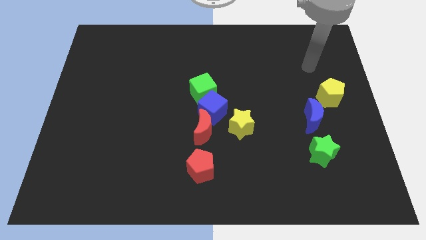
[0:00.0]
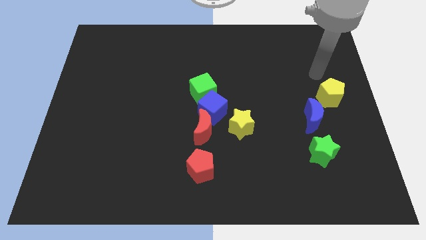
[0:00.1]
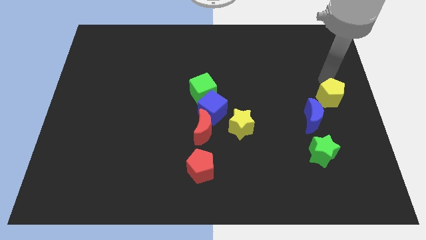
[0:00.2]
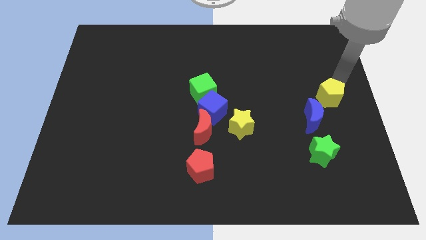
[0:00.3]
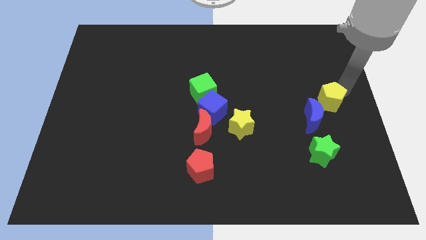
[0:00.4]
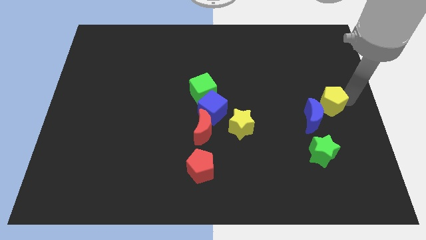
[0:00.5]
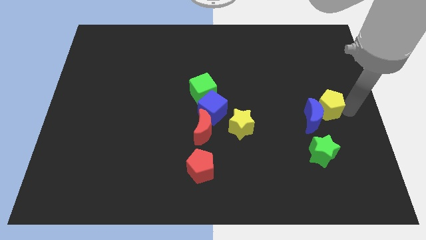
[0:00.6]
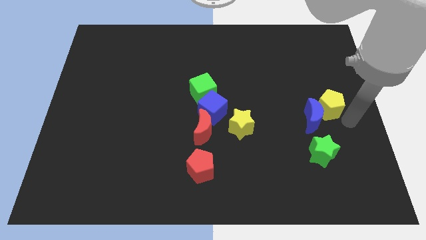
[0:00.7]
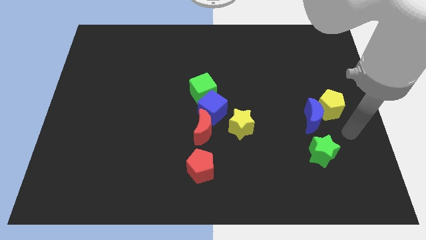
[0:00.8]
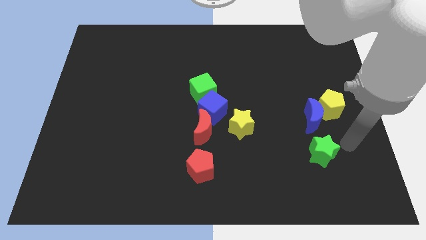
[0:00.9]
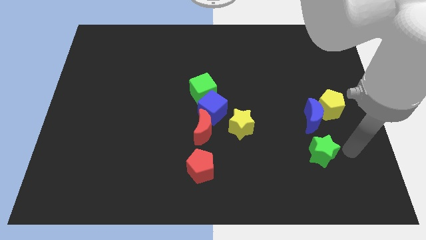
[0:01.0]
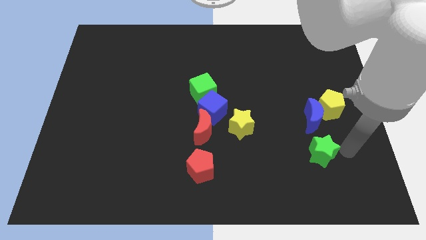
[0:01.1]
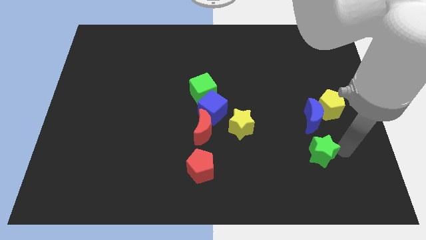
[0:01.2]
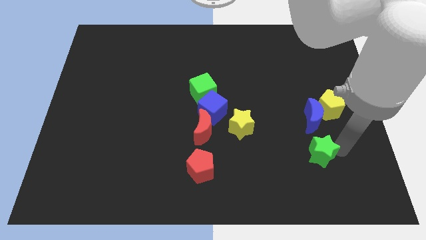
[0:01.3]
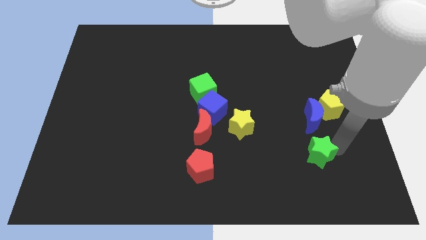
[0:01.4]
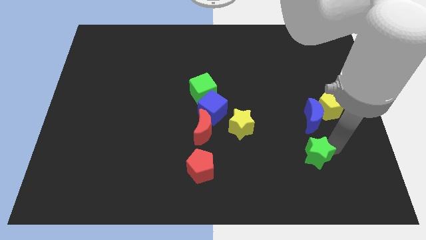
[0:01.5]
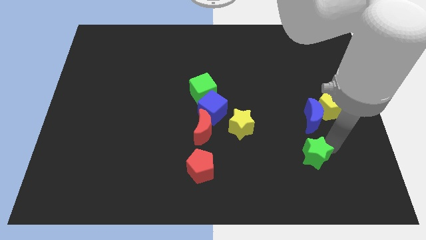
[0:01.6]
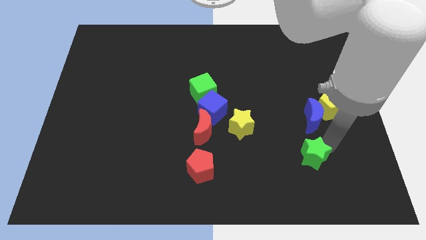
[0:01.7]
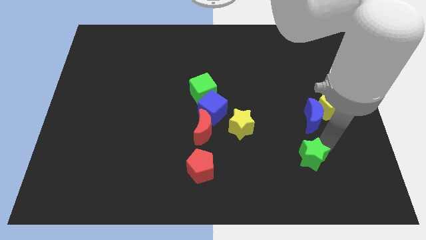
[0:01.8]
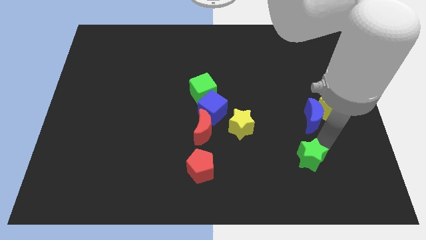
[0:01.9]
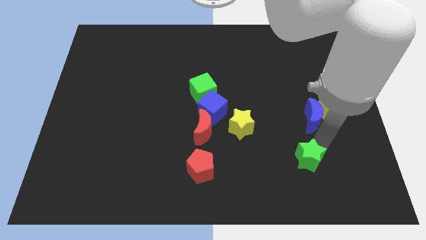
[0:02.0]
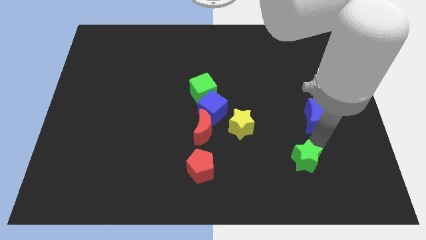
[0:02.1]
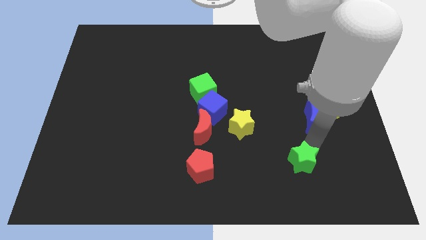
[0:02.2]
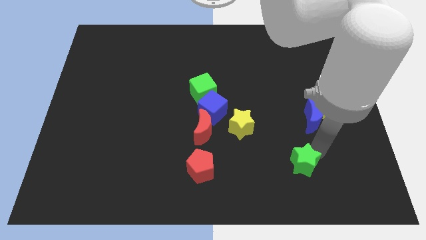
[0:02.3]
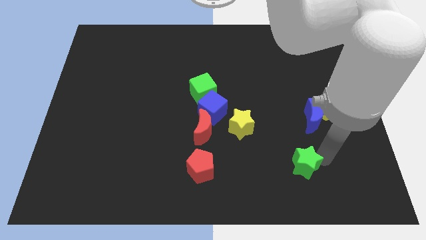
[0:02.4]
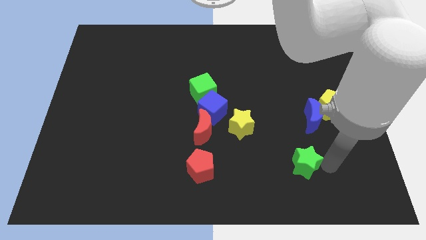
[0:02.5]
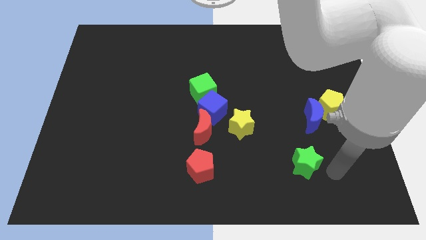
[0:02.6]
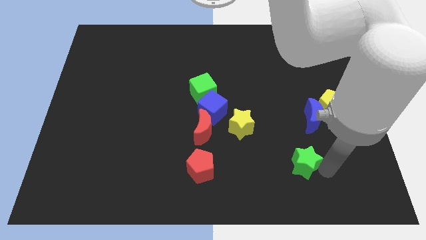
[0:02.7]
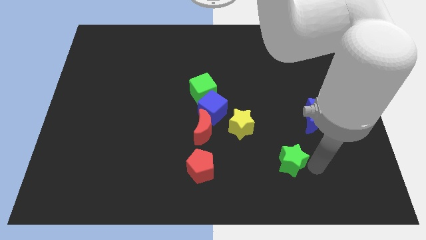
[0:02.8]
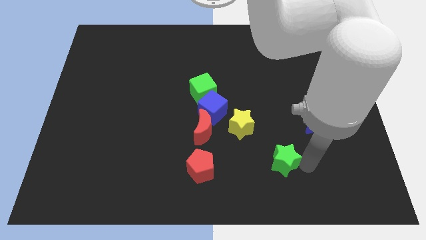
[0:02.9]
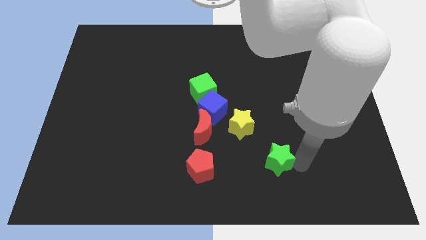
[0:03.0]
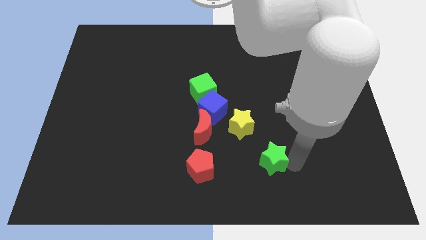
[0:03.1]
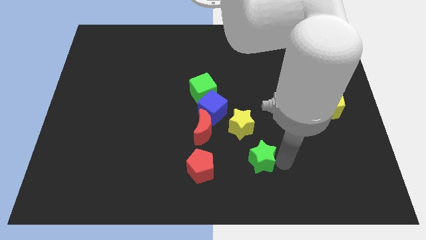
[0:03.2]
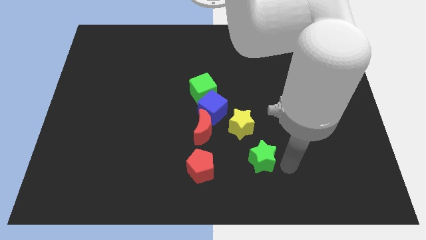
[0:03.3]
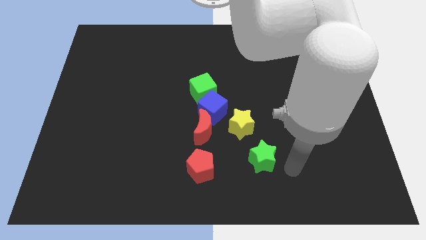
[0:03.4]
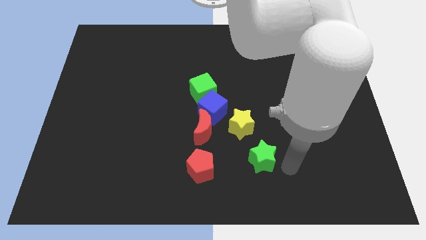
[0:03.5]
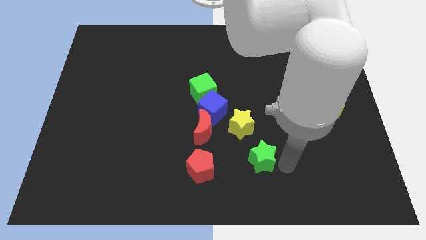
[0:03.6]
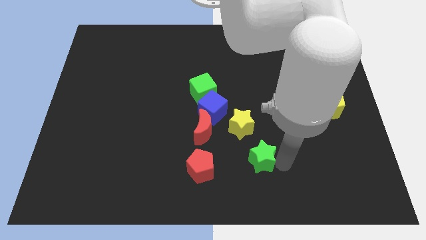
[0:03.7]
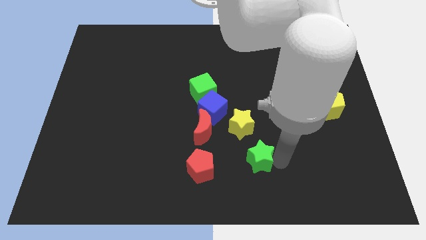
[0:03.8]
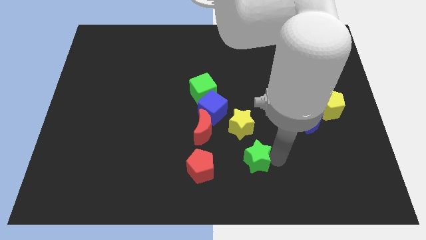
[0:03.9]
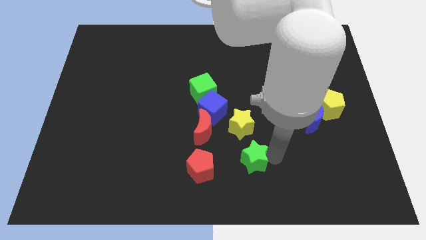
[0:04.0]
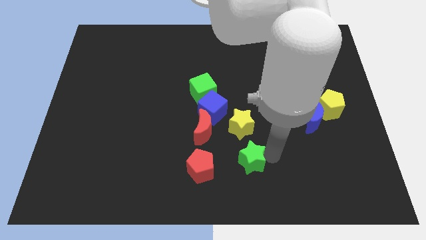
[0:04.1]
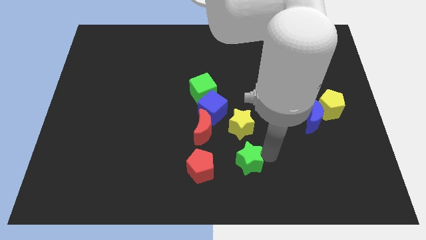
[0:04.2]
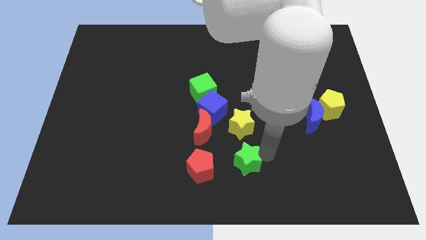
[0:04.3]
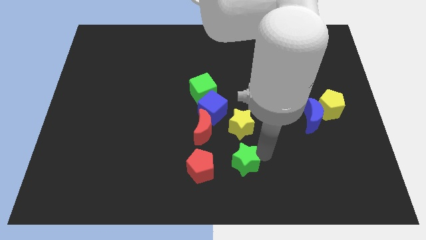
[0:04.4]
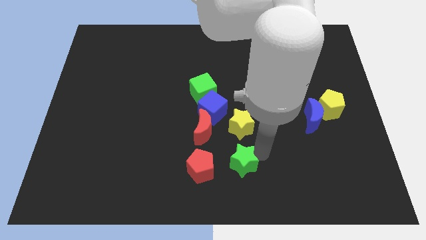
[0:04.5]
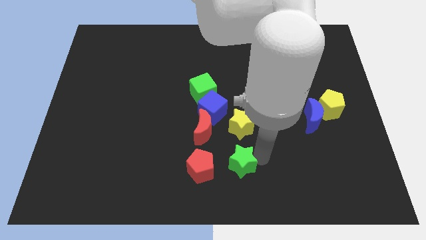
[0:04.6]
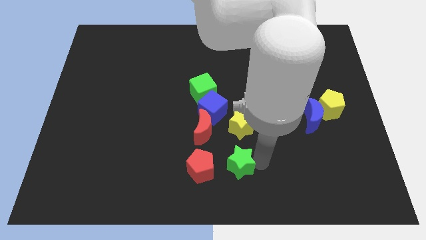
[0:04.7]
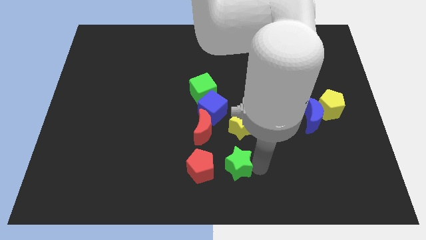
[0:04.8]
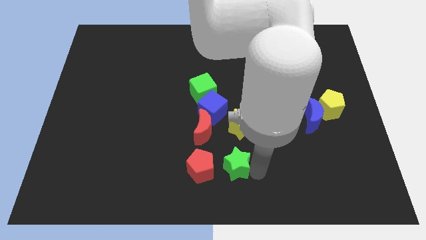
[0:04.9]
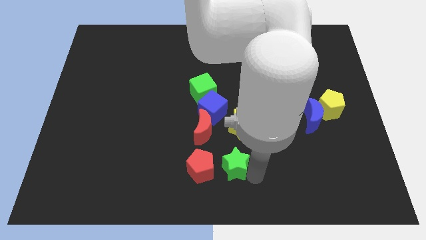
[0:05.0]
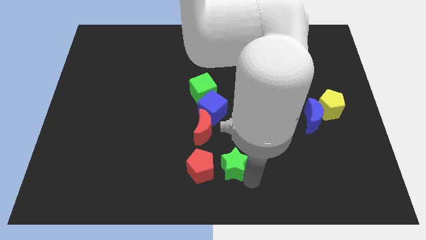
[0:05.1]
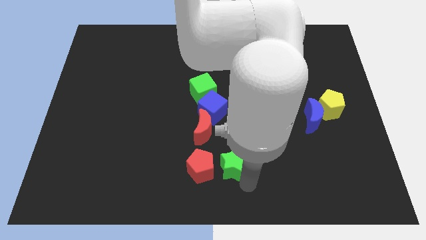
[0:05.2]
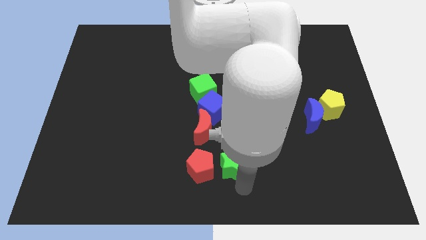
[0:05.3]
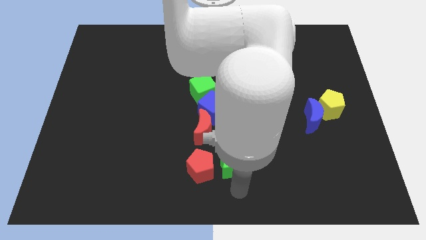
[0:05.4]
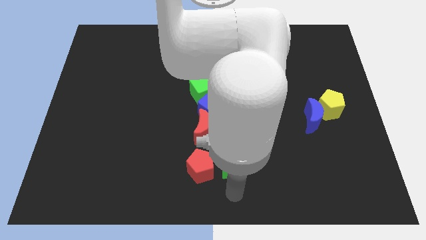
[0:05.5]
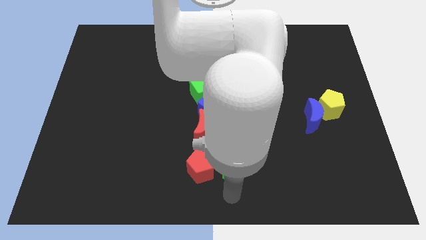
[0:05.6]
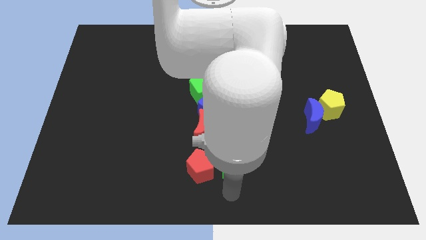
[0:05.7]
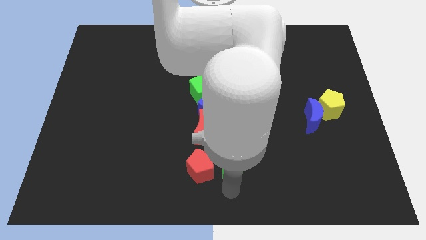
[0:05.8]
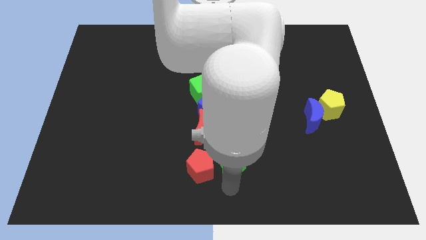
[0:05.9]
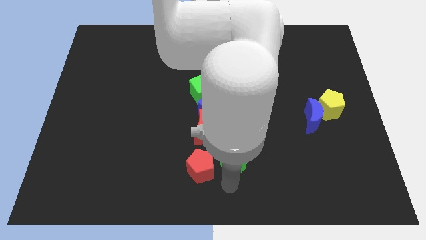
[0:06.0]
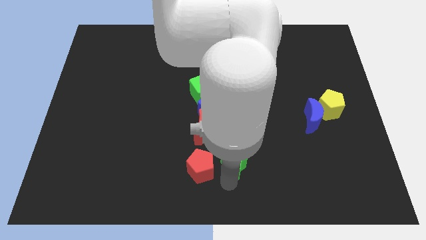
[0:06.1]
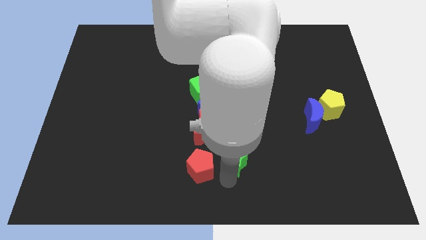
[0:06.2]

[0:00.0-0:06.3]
push the green star below the blue cube

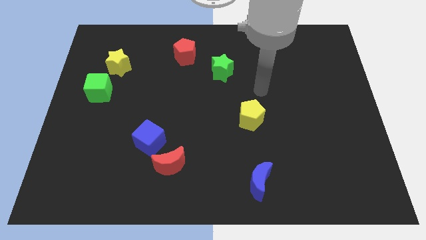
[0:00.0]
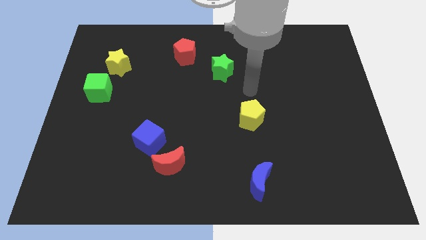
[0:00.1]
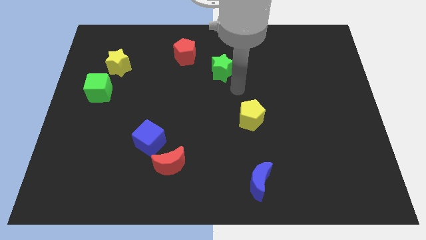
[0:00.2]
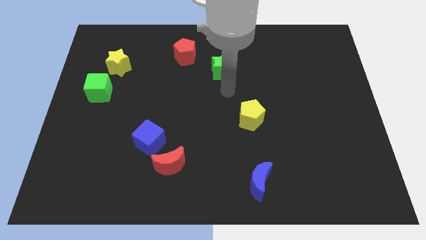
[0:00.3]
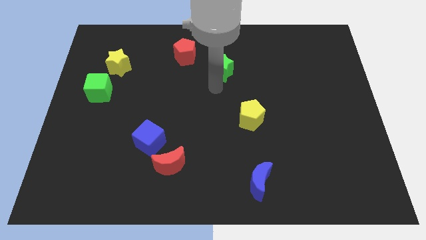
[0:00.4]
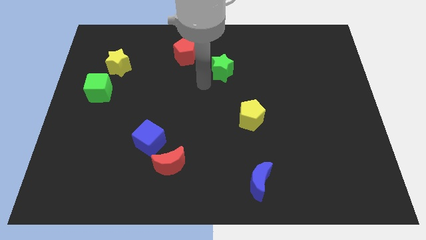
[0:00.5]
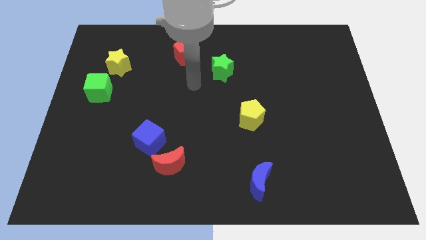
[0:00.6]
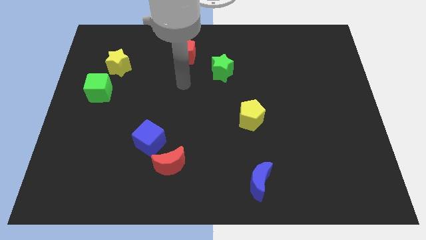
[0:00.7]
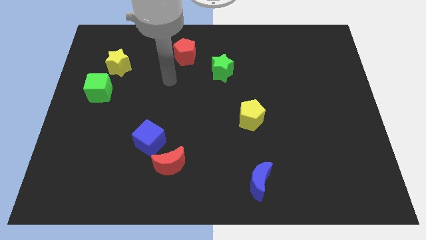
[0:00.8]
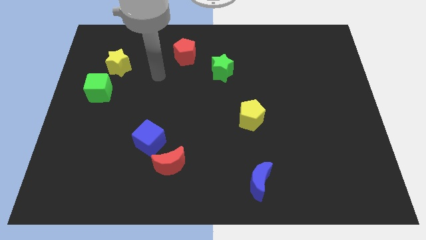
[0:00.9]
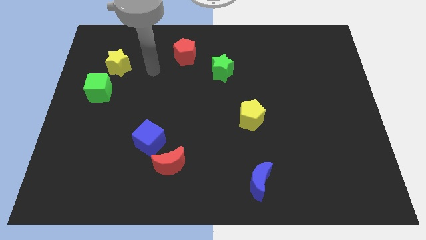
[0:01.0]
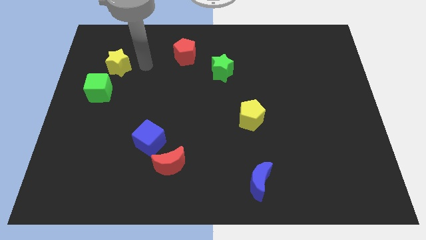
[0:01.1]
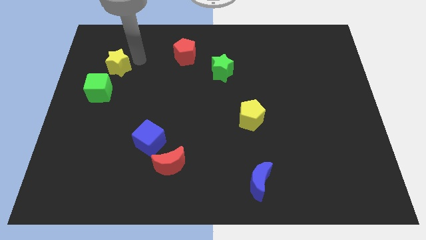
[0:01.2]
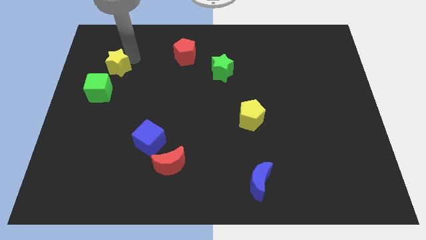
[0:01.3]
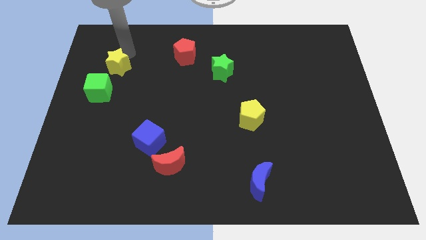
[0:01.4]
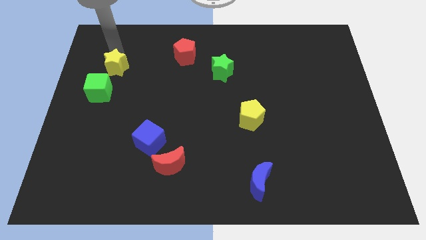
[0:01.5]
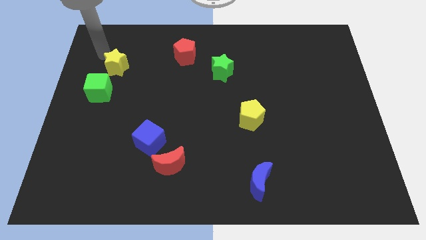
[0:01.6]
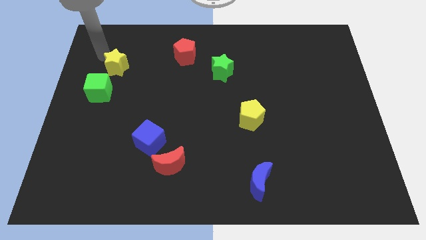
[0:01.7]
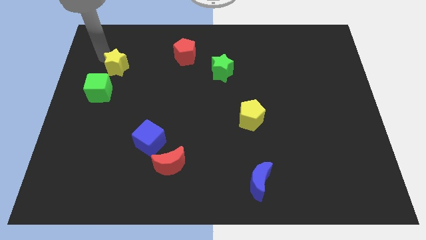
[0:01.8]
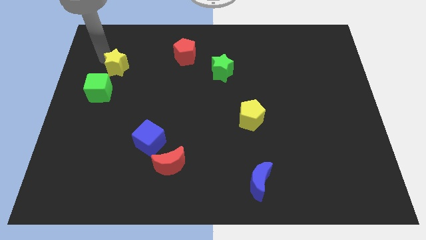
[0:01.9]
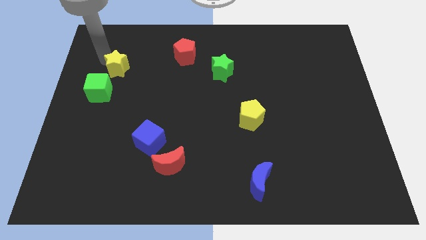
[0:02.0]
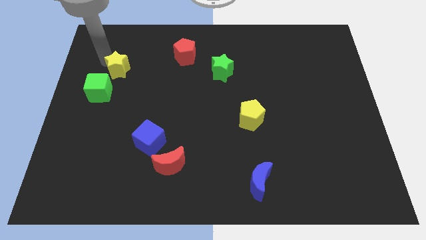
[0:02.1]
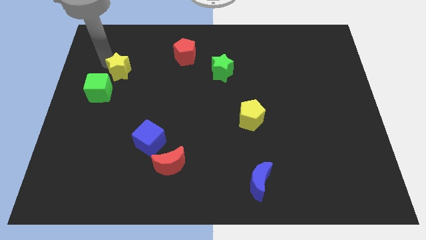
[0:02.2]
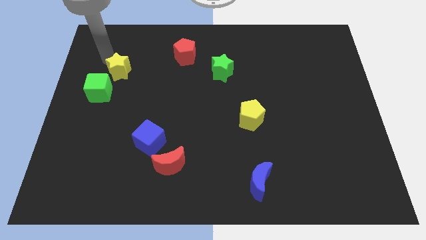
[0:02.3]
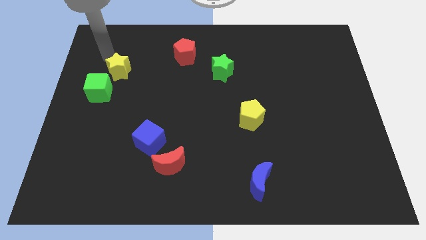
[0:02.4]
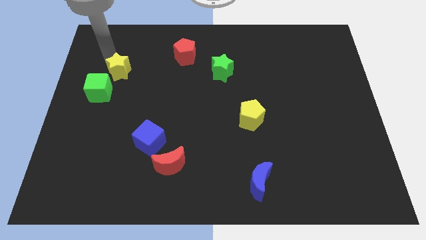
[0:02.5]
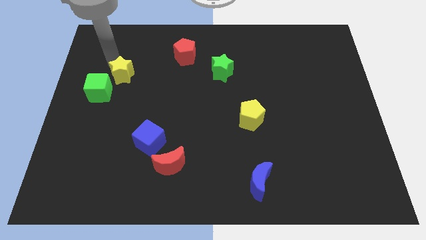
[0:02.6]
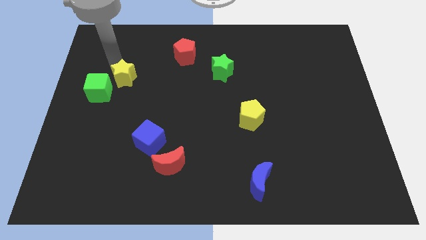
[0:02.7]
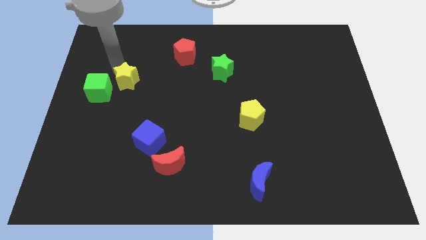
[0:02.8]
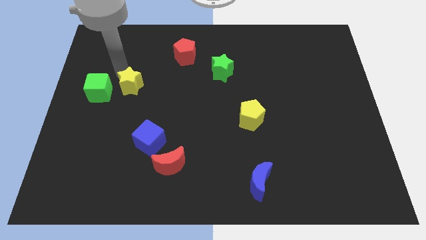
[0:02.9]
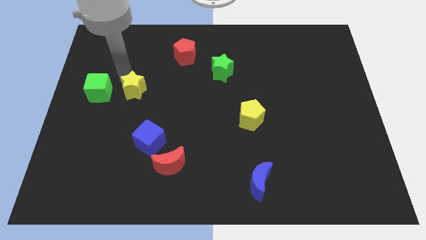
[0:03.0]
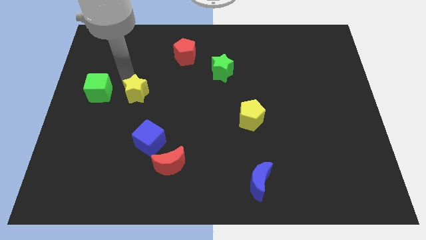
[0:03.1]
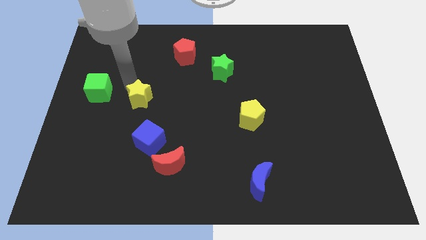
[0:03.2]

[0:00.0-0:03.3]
move the yellow star above the blue cube
